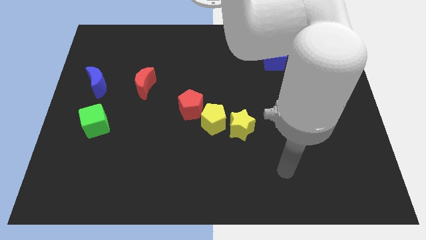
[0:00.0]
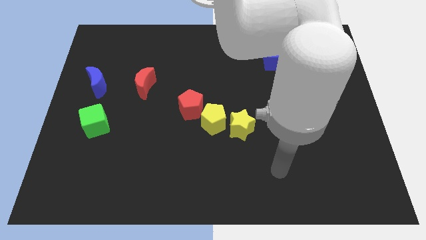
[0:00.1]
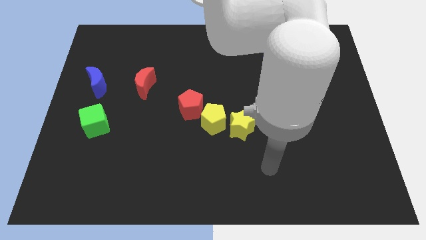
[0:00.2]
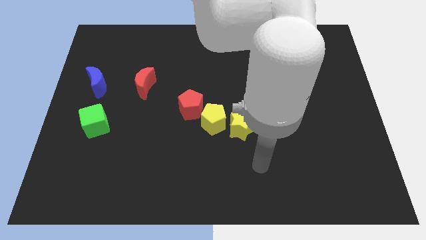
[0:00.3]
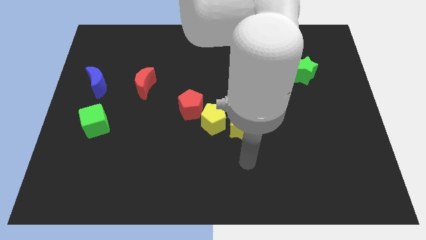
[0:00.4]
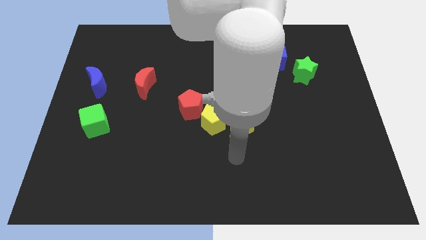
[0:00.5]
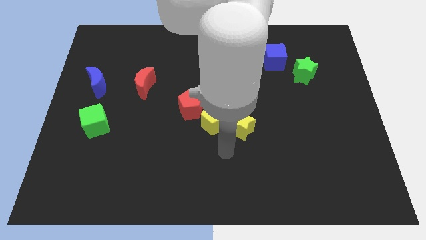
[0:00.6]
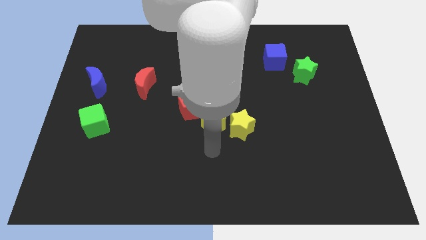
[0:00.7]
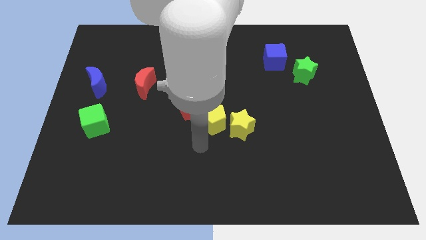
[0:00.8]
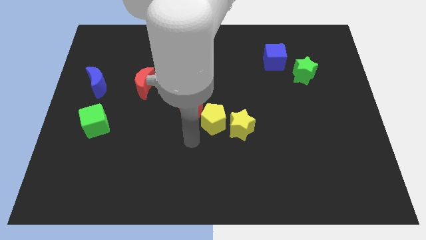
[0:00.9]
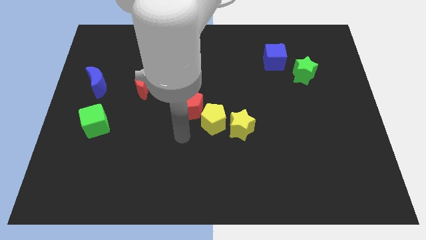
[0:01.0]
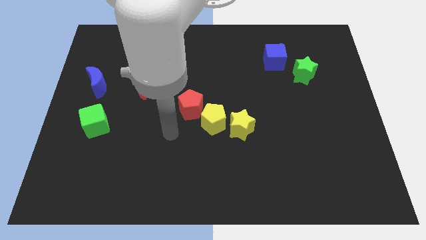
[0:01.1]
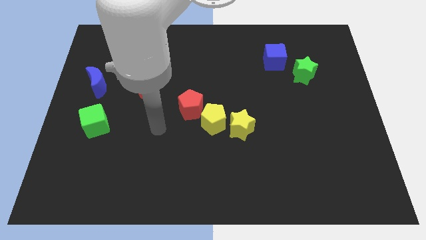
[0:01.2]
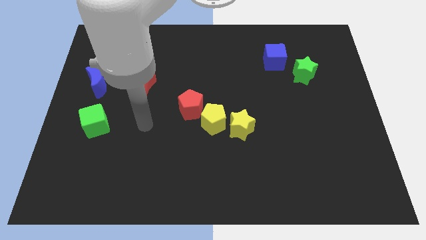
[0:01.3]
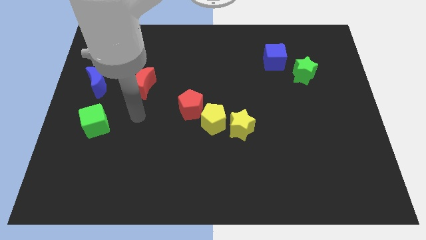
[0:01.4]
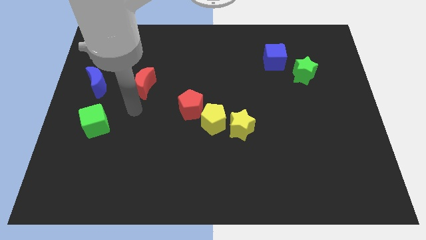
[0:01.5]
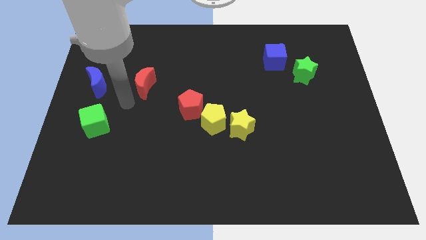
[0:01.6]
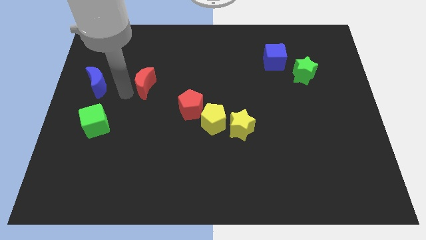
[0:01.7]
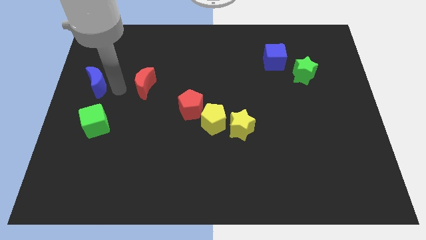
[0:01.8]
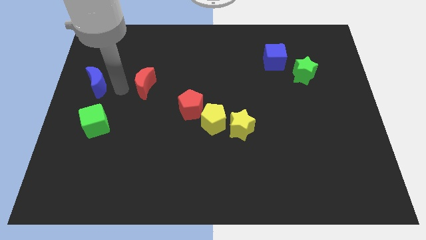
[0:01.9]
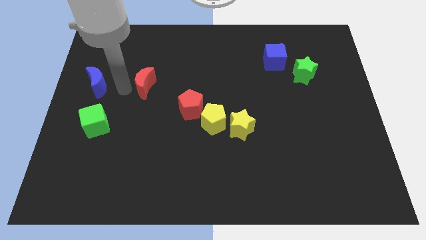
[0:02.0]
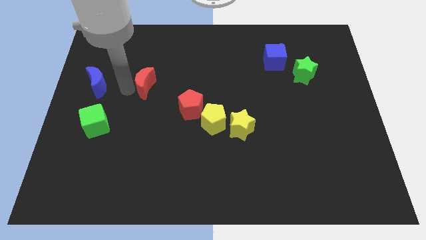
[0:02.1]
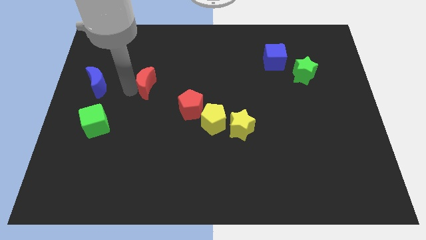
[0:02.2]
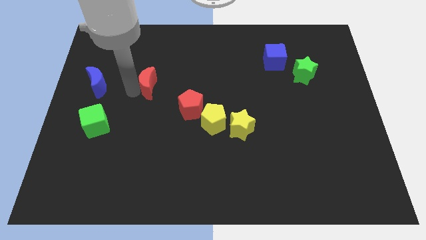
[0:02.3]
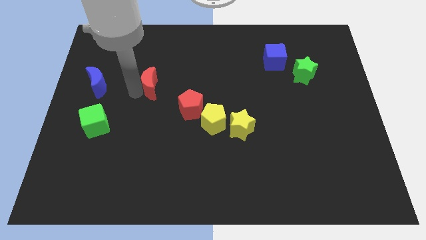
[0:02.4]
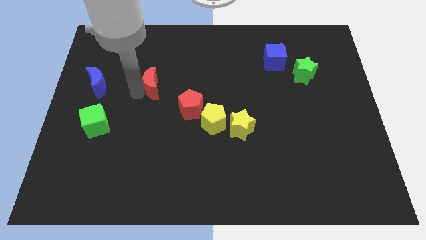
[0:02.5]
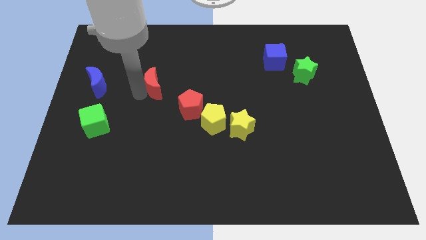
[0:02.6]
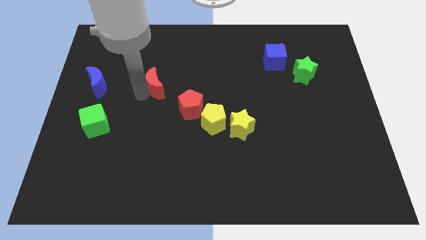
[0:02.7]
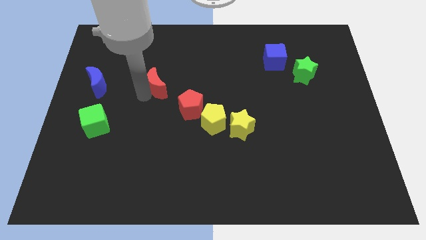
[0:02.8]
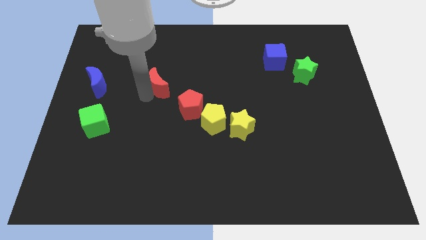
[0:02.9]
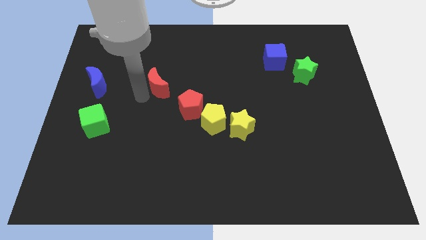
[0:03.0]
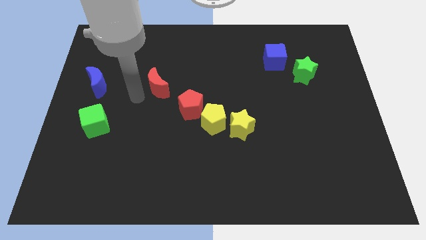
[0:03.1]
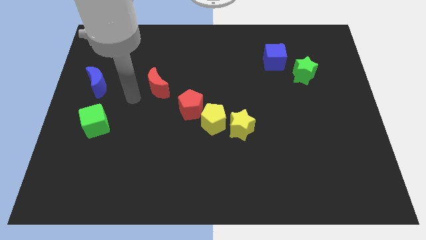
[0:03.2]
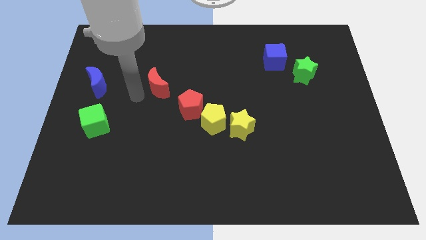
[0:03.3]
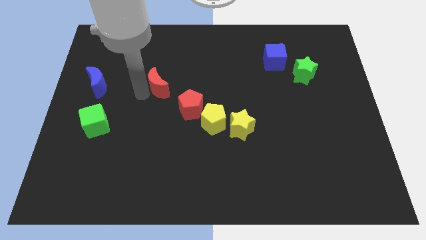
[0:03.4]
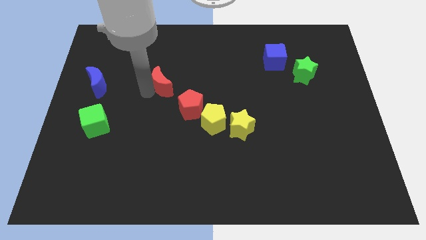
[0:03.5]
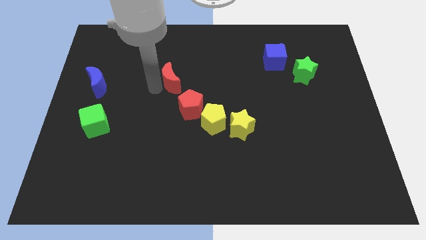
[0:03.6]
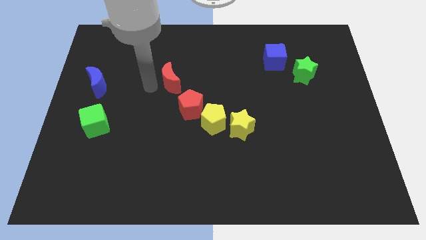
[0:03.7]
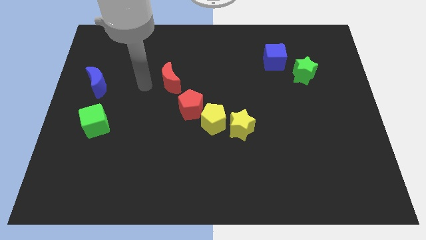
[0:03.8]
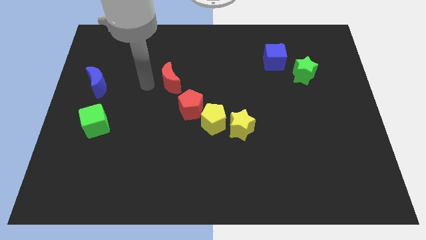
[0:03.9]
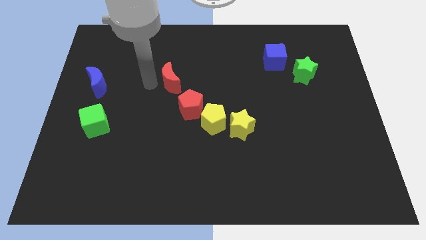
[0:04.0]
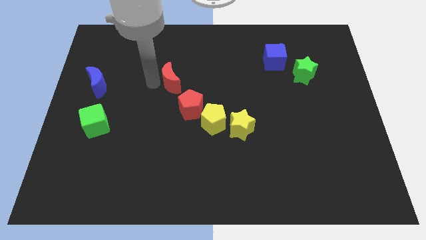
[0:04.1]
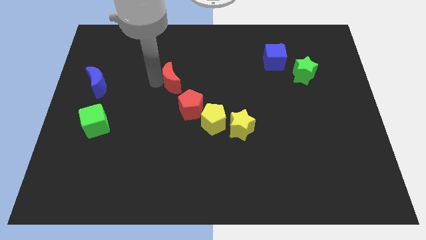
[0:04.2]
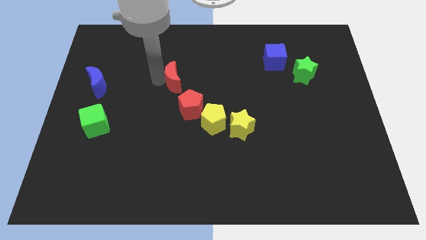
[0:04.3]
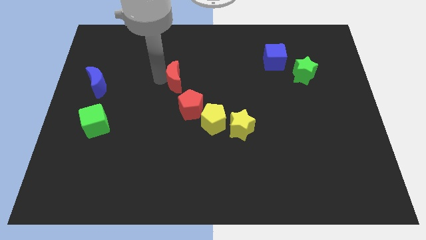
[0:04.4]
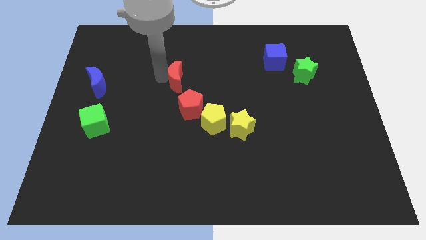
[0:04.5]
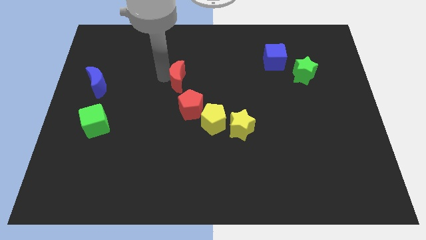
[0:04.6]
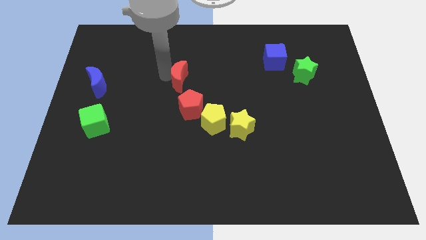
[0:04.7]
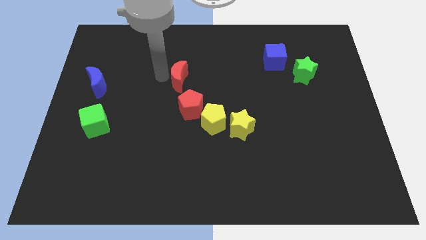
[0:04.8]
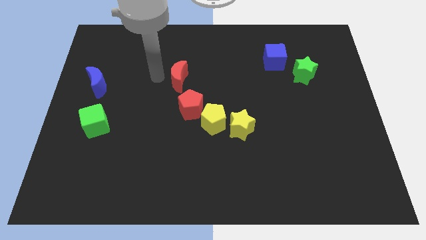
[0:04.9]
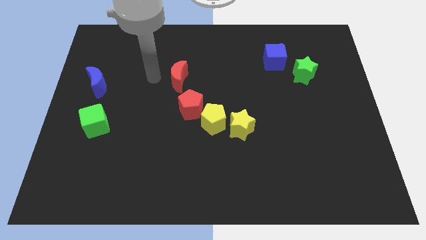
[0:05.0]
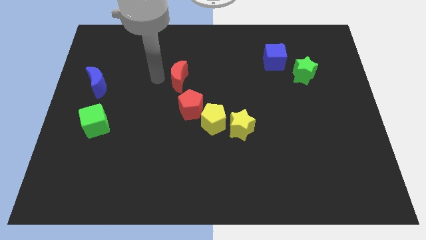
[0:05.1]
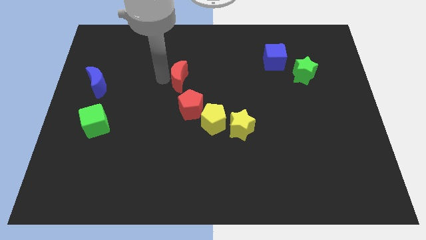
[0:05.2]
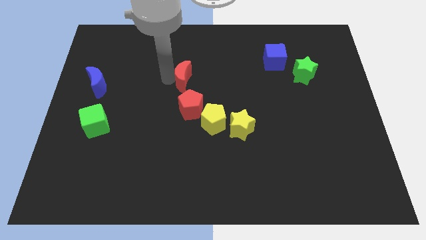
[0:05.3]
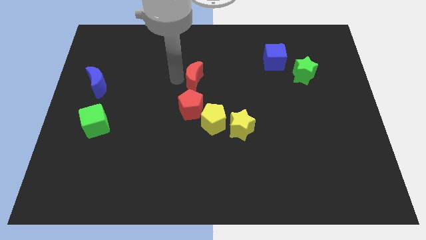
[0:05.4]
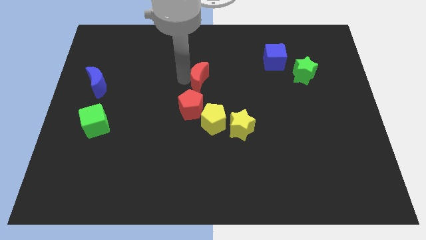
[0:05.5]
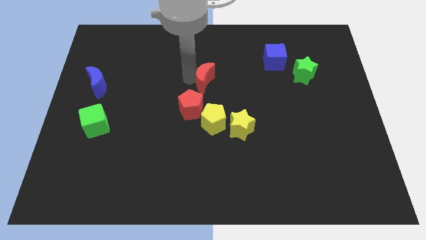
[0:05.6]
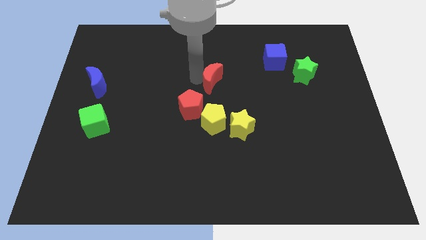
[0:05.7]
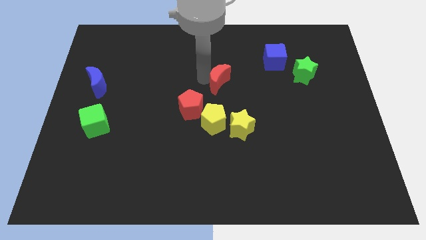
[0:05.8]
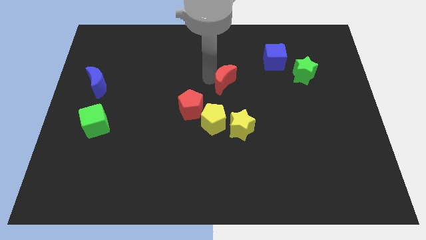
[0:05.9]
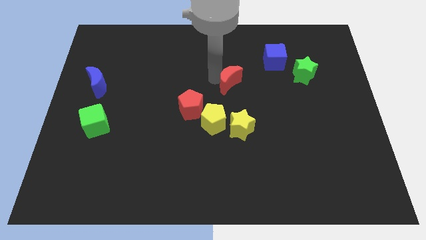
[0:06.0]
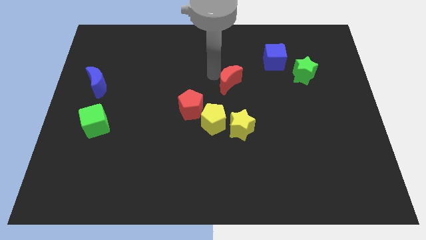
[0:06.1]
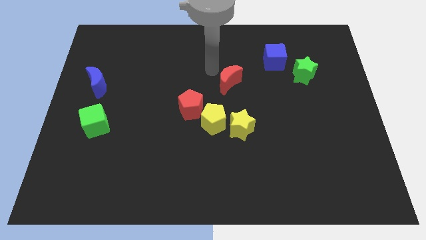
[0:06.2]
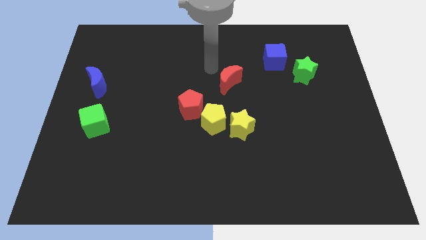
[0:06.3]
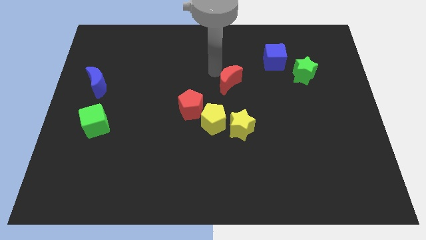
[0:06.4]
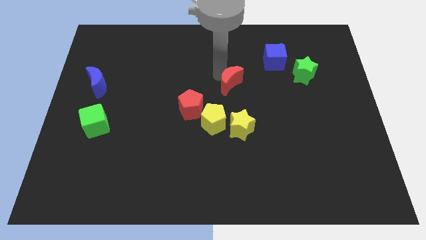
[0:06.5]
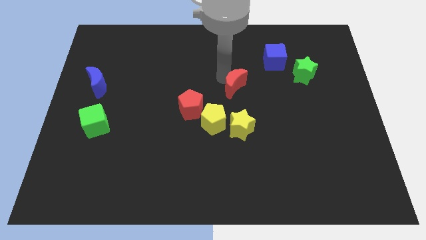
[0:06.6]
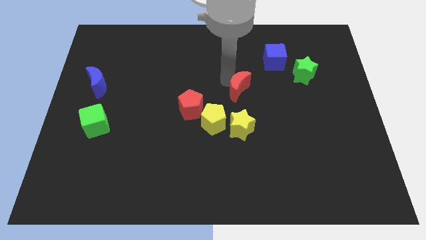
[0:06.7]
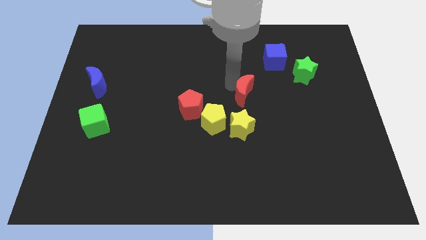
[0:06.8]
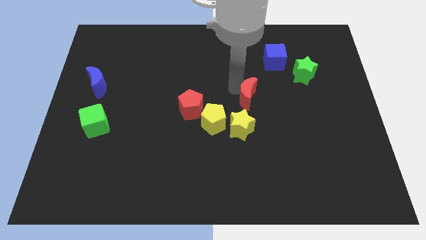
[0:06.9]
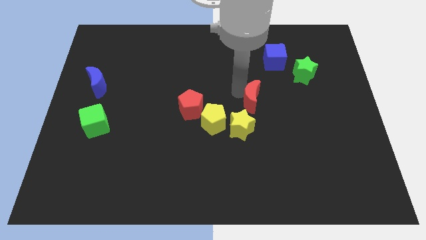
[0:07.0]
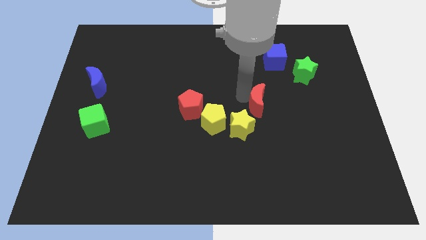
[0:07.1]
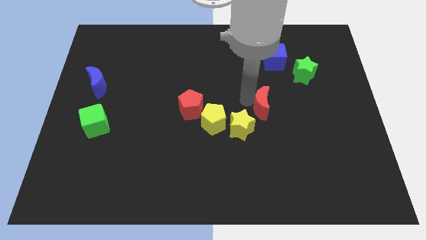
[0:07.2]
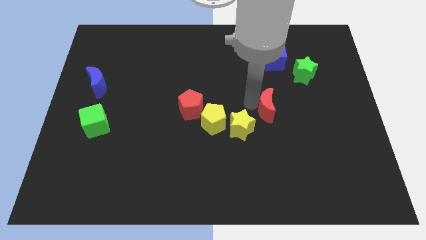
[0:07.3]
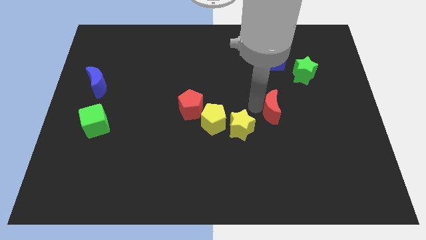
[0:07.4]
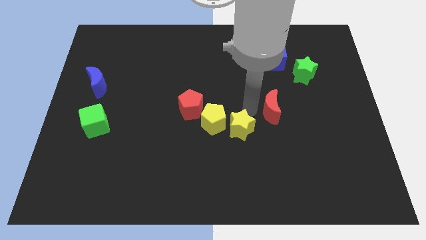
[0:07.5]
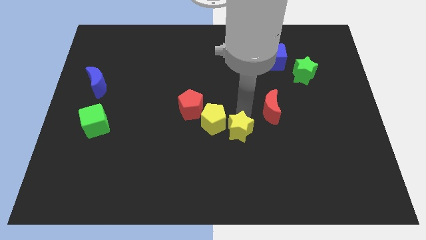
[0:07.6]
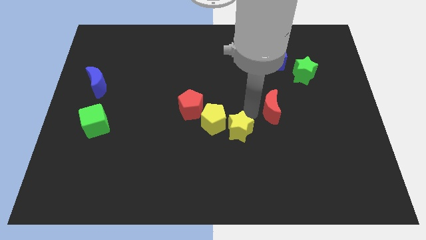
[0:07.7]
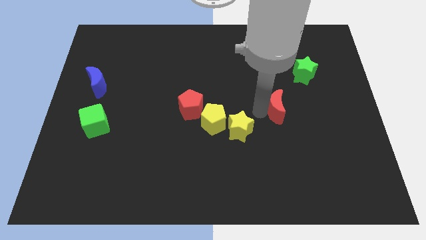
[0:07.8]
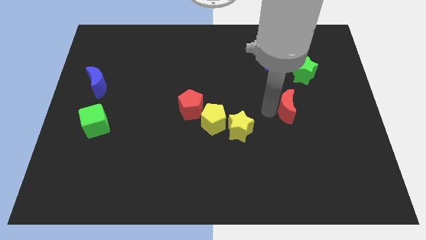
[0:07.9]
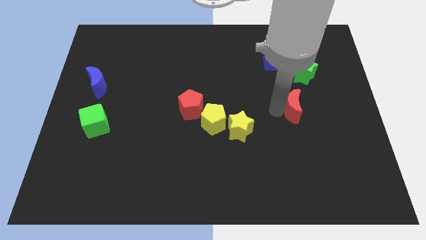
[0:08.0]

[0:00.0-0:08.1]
slide the red moon below the green star

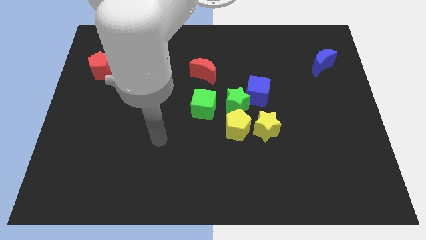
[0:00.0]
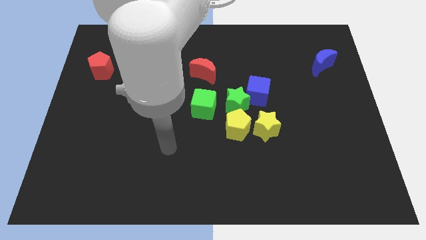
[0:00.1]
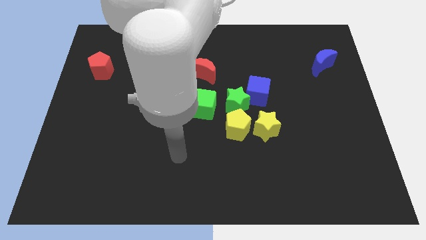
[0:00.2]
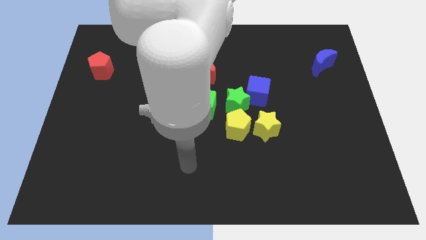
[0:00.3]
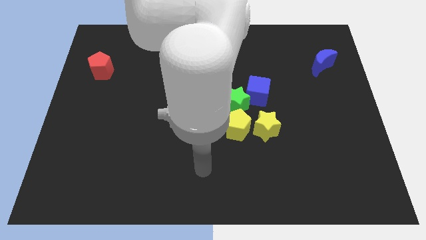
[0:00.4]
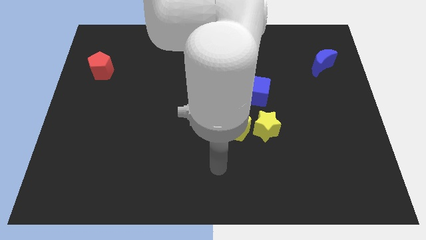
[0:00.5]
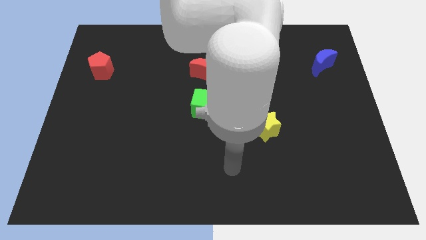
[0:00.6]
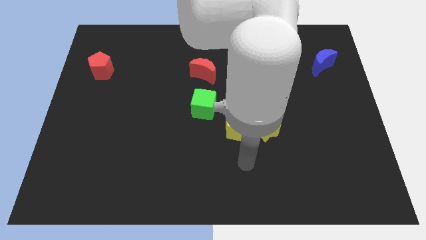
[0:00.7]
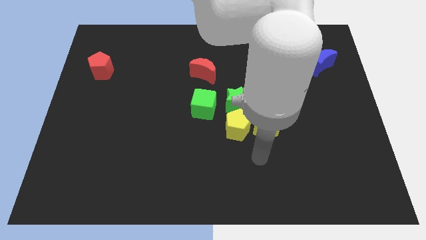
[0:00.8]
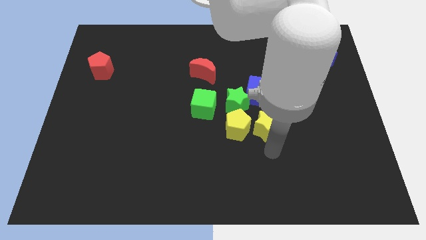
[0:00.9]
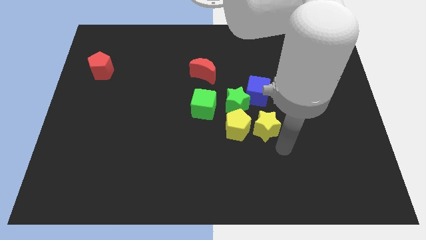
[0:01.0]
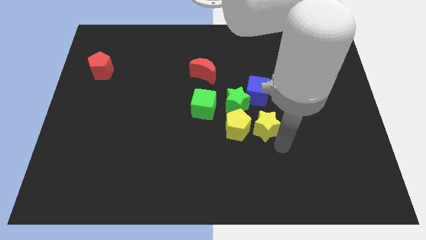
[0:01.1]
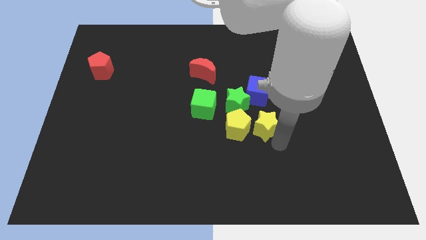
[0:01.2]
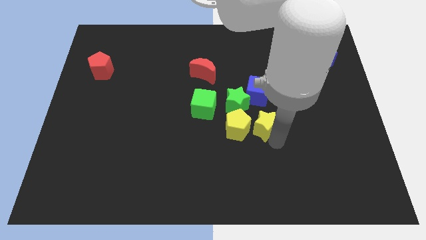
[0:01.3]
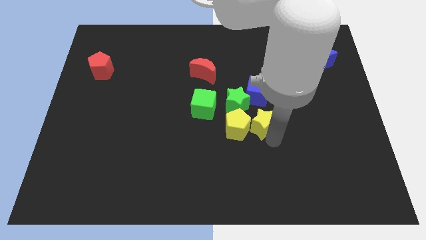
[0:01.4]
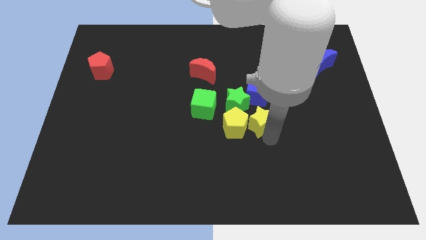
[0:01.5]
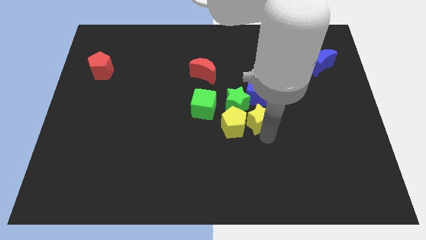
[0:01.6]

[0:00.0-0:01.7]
put the yellow star just right of the green cube
